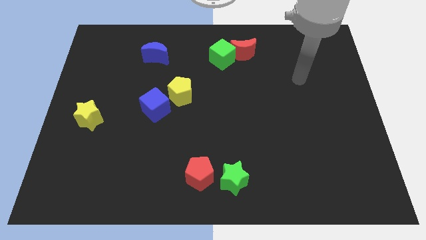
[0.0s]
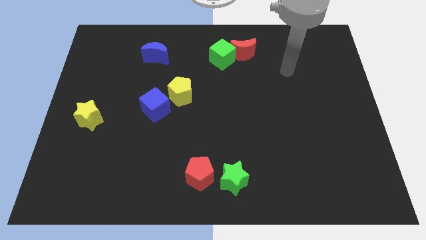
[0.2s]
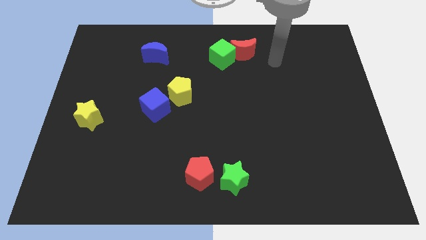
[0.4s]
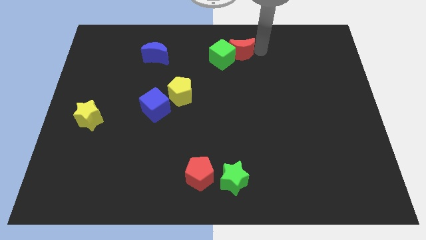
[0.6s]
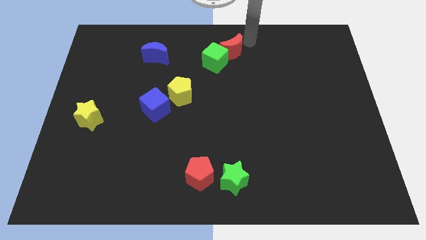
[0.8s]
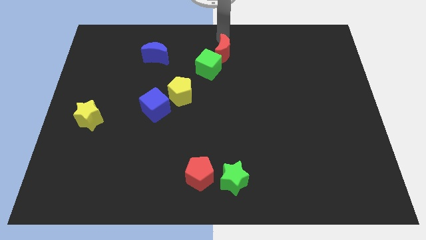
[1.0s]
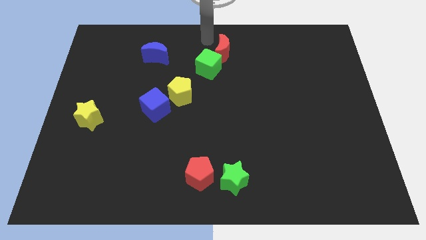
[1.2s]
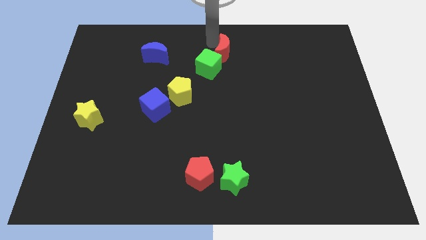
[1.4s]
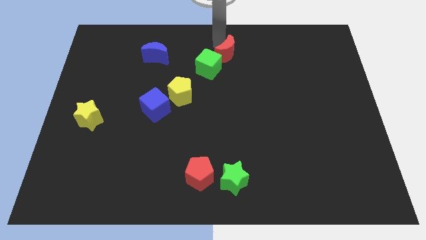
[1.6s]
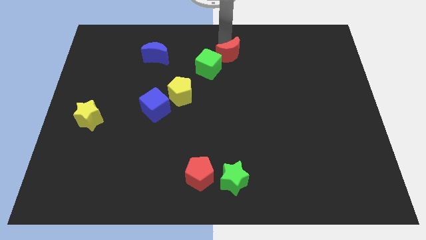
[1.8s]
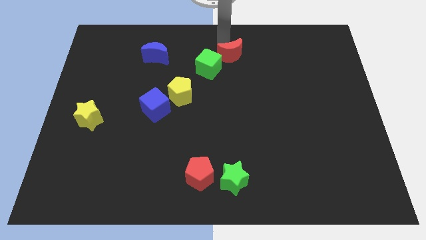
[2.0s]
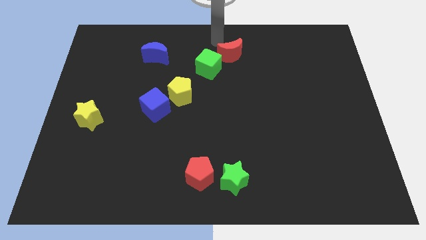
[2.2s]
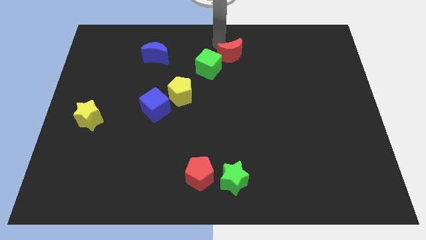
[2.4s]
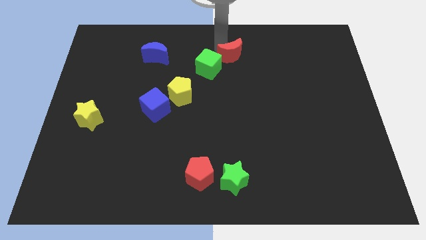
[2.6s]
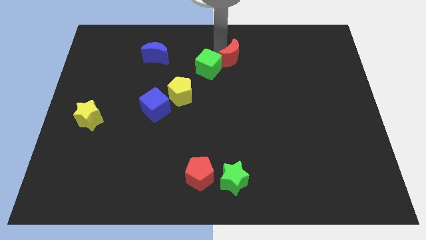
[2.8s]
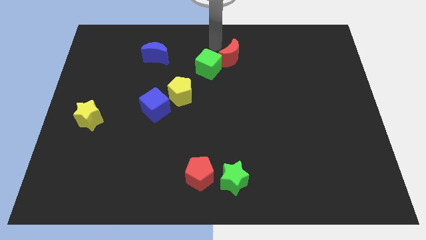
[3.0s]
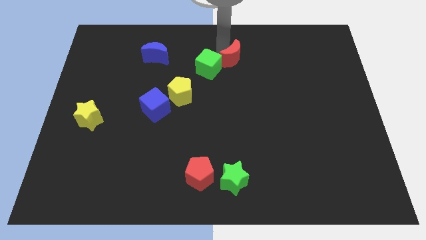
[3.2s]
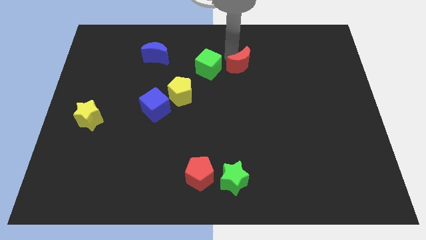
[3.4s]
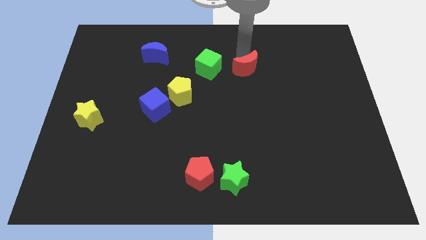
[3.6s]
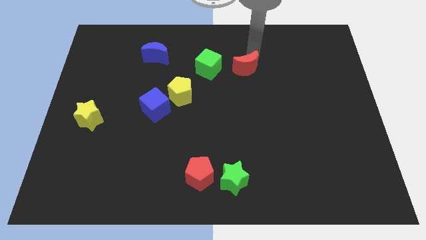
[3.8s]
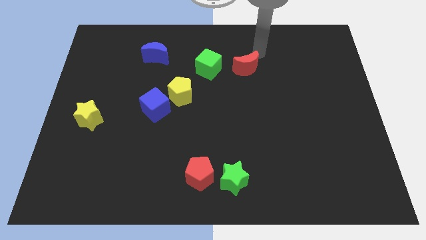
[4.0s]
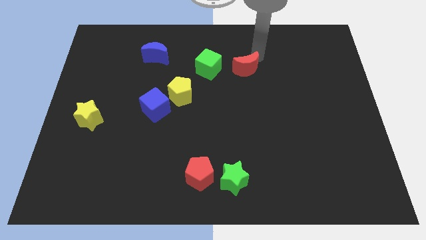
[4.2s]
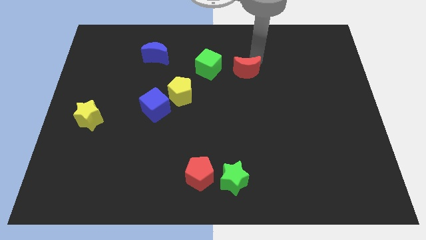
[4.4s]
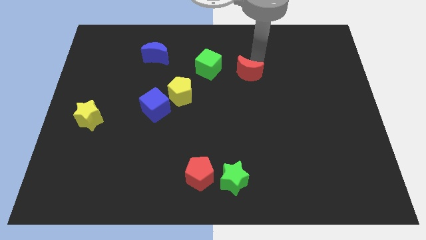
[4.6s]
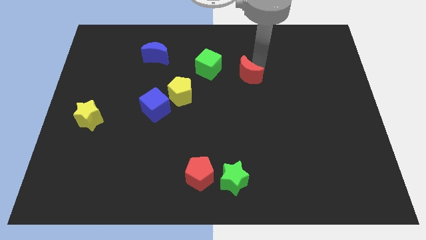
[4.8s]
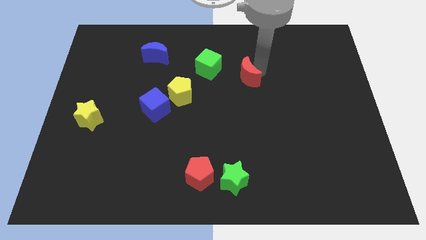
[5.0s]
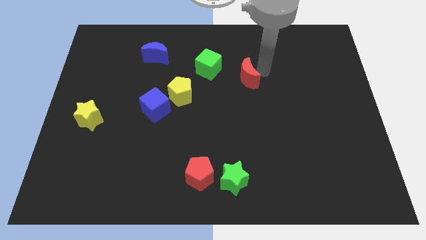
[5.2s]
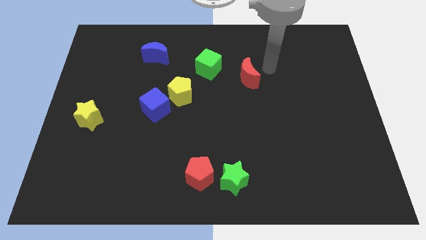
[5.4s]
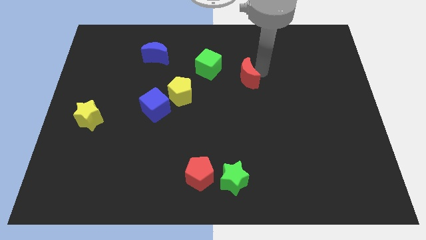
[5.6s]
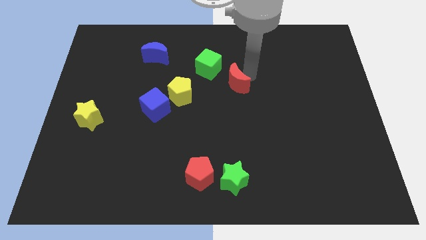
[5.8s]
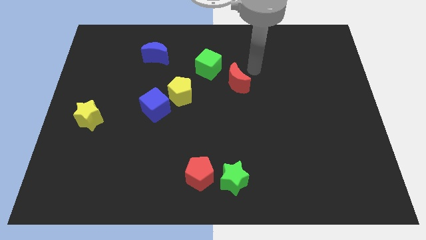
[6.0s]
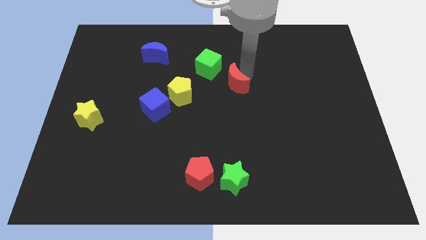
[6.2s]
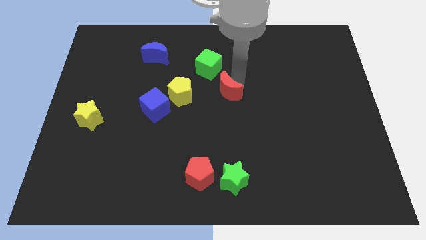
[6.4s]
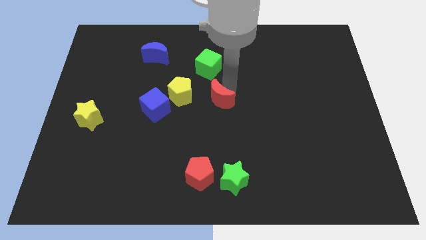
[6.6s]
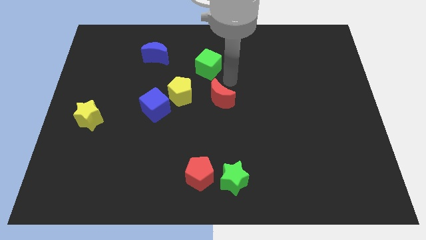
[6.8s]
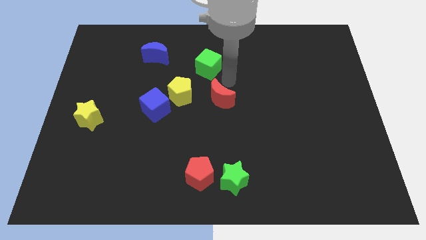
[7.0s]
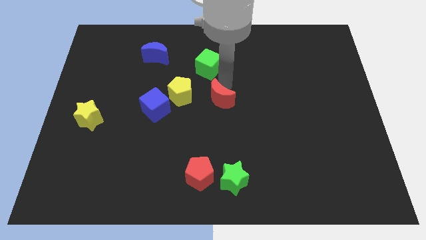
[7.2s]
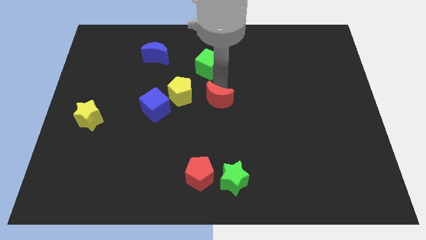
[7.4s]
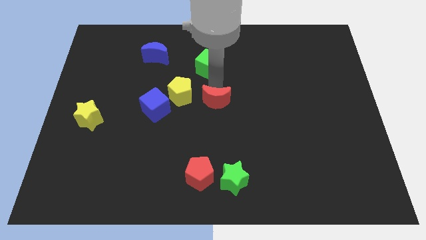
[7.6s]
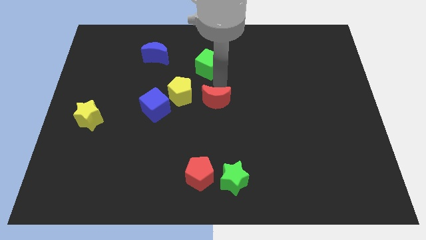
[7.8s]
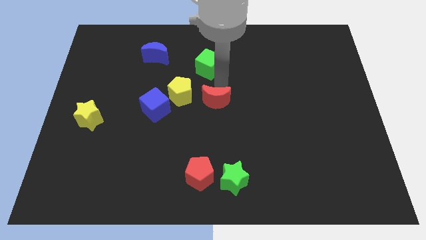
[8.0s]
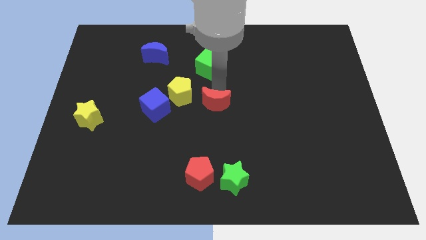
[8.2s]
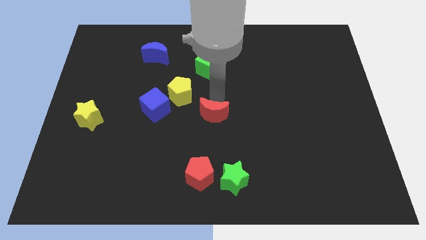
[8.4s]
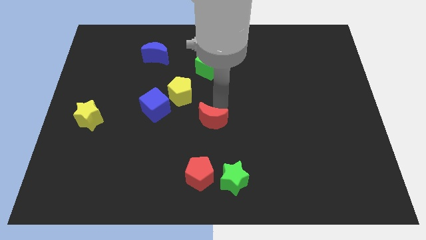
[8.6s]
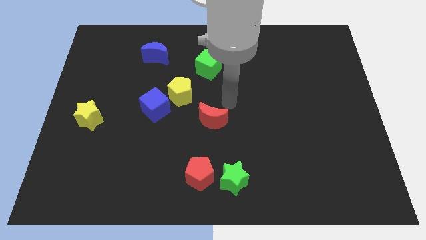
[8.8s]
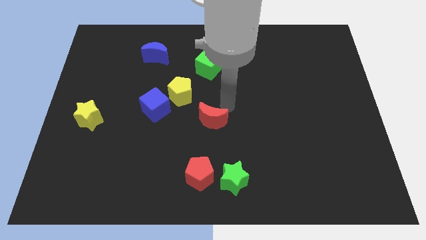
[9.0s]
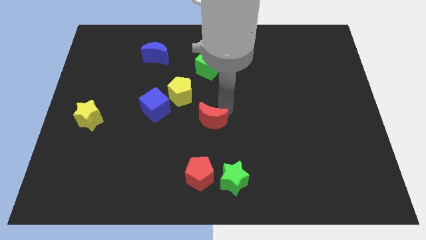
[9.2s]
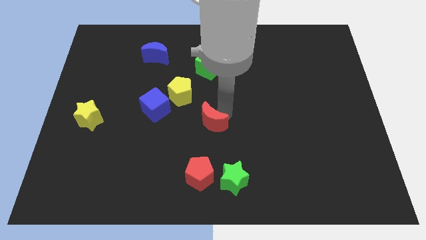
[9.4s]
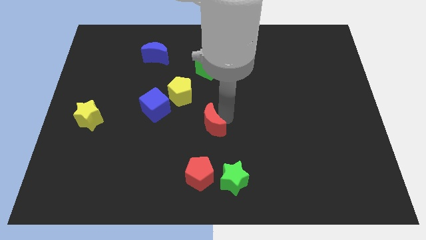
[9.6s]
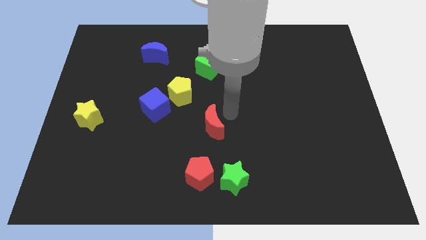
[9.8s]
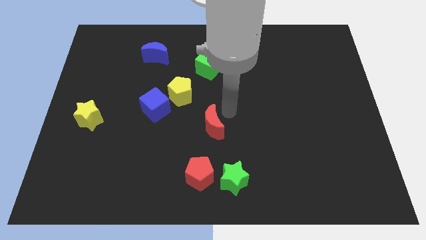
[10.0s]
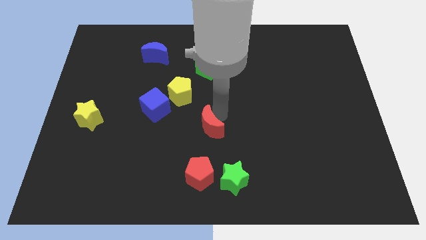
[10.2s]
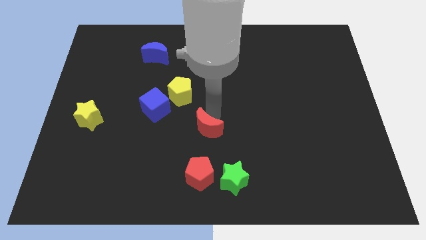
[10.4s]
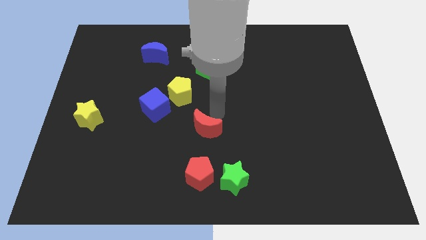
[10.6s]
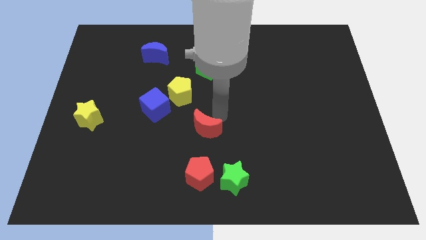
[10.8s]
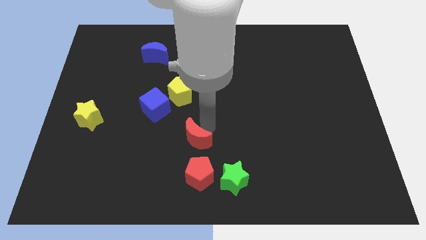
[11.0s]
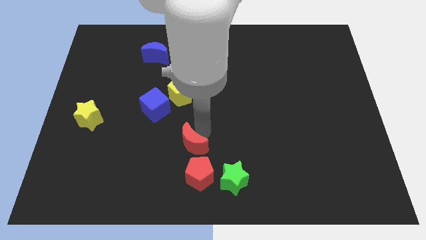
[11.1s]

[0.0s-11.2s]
move the red moon diagonally up and to the left of the red pentagon

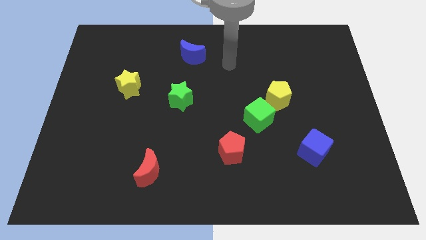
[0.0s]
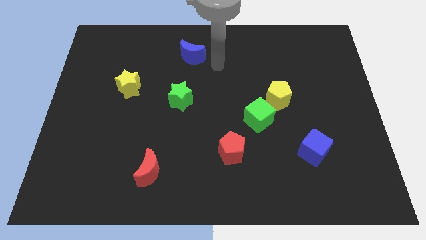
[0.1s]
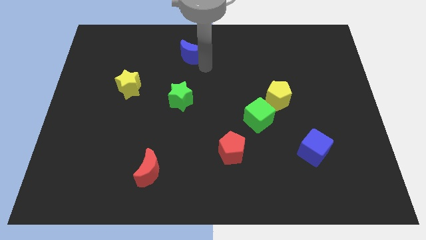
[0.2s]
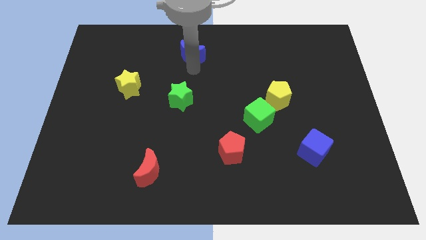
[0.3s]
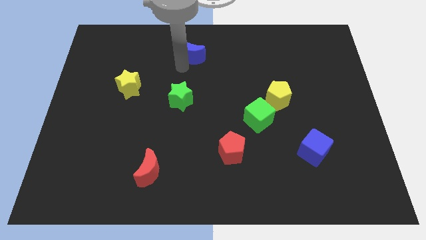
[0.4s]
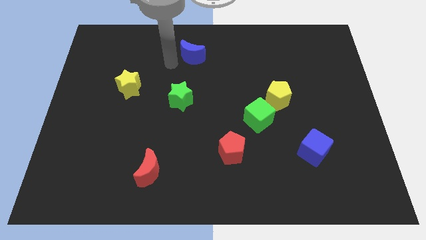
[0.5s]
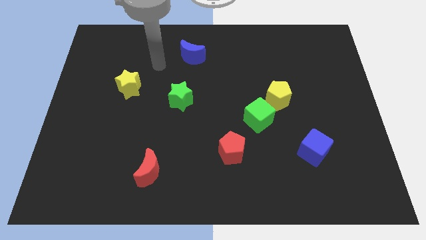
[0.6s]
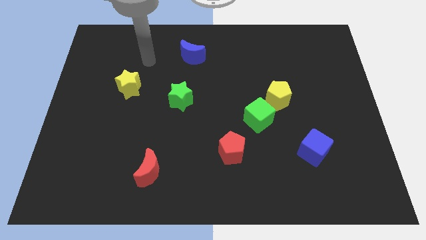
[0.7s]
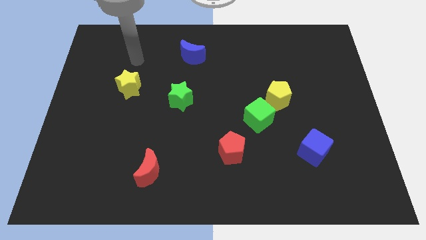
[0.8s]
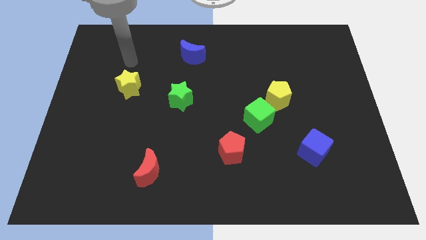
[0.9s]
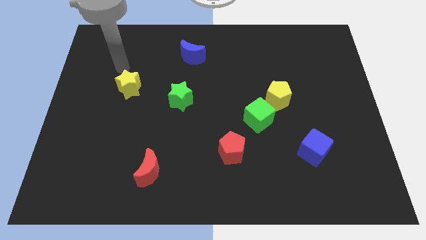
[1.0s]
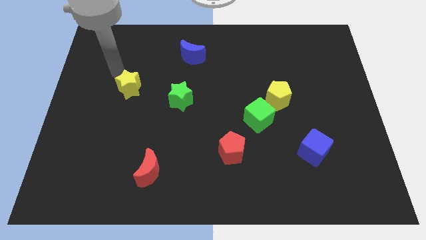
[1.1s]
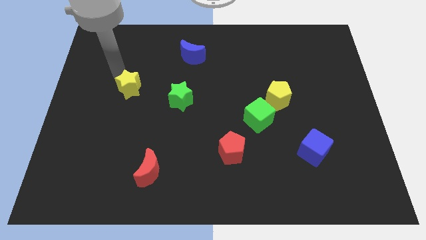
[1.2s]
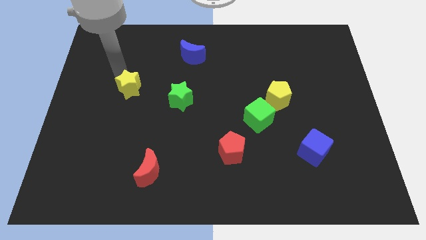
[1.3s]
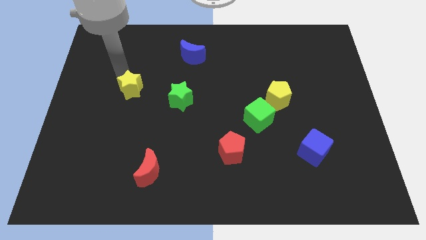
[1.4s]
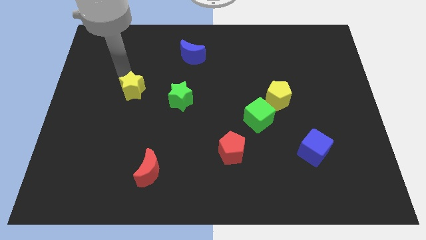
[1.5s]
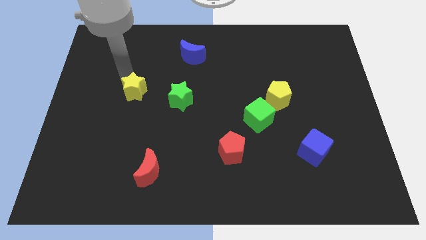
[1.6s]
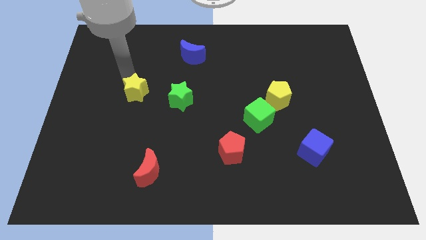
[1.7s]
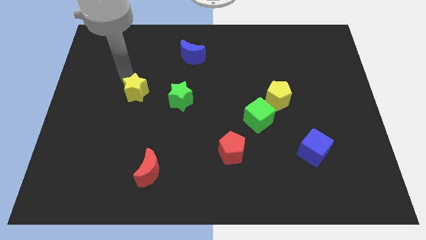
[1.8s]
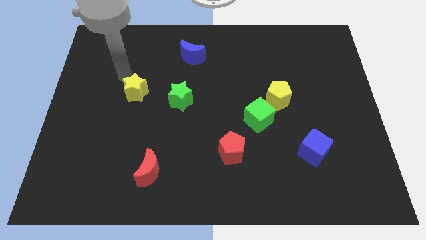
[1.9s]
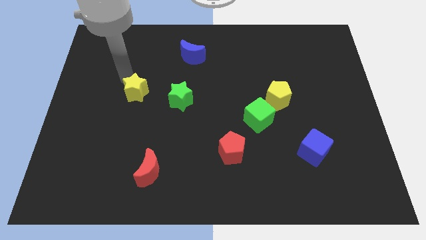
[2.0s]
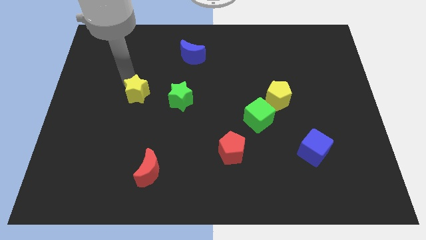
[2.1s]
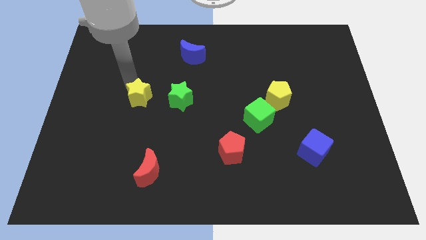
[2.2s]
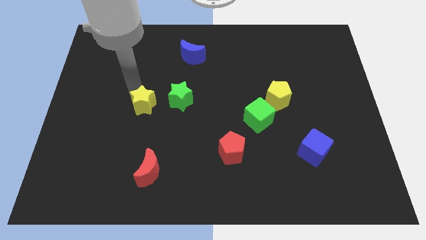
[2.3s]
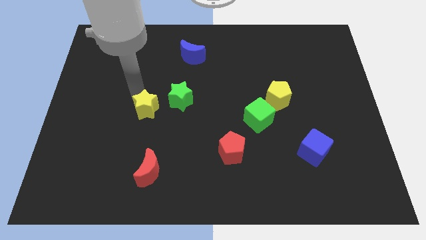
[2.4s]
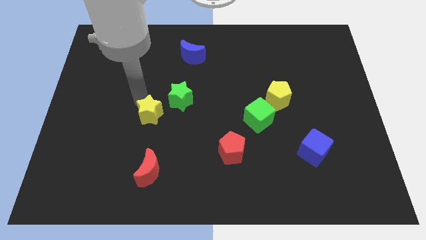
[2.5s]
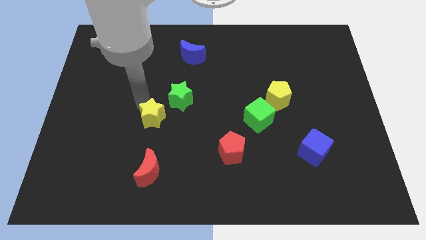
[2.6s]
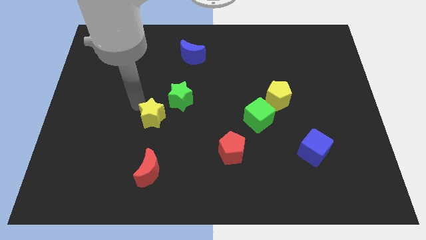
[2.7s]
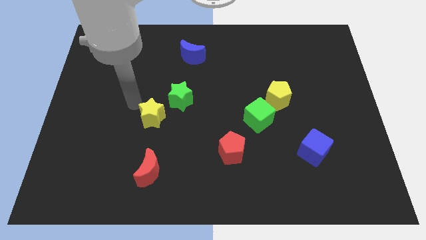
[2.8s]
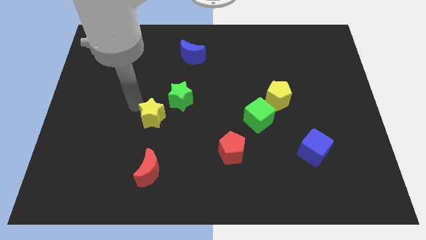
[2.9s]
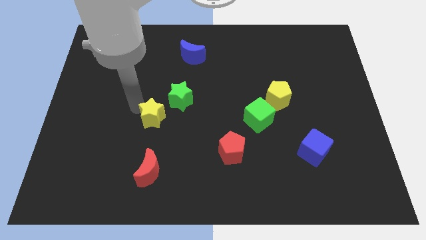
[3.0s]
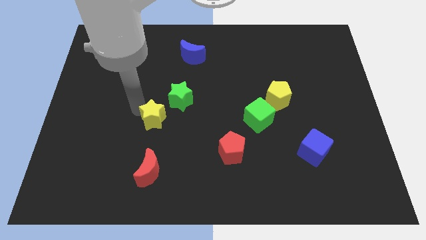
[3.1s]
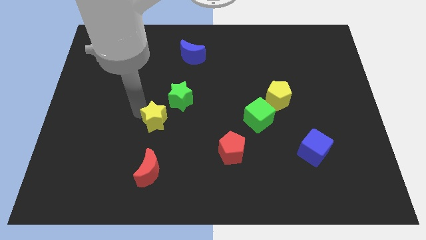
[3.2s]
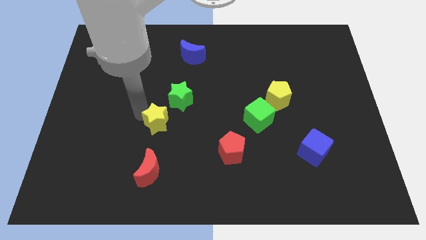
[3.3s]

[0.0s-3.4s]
push the yellow star to the bottom of the green star
